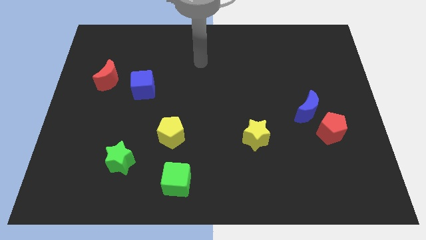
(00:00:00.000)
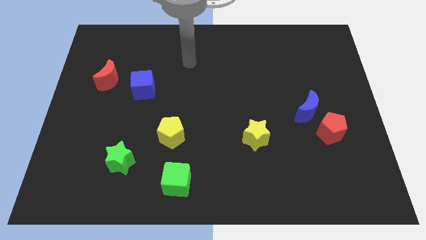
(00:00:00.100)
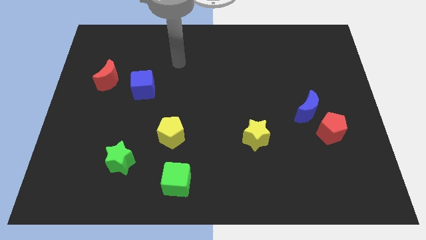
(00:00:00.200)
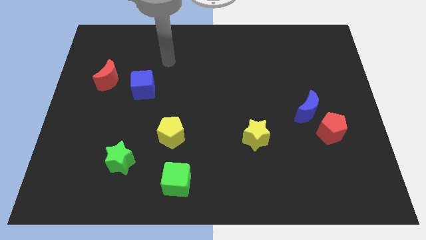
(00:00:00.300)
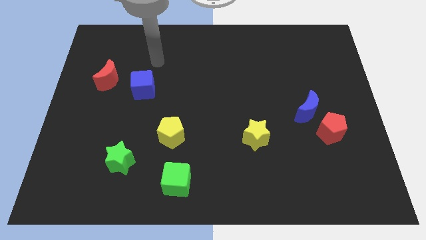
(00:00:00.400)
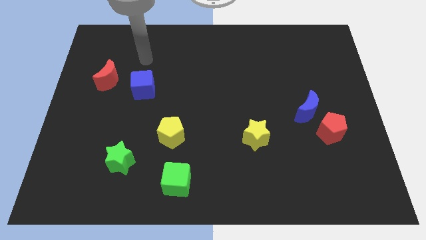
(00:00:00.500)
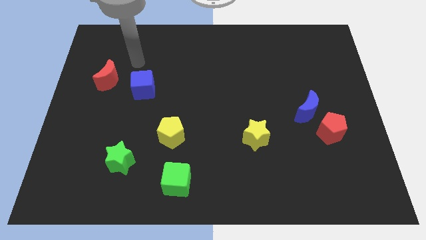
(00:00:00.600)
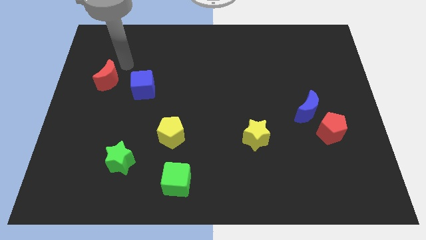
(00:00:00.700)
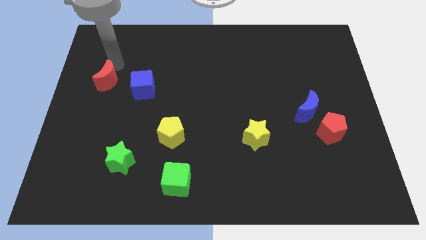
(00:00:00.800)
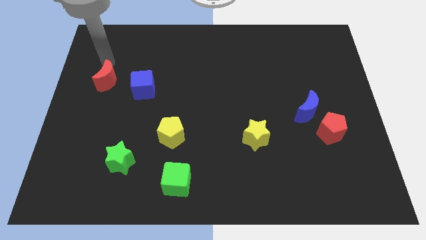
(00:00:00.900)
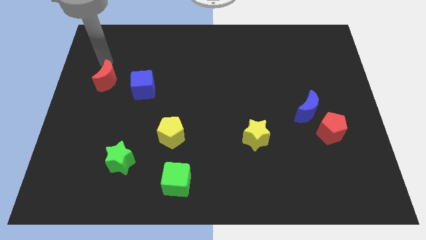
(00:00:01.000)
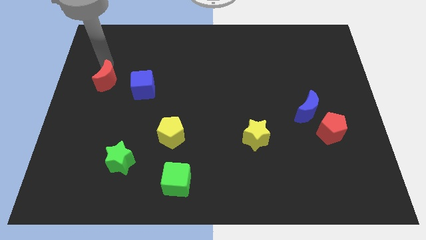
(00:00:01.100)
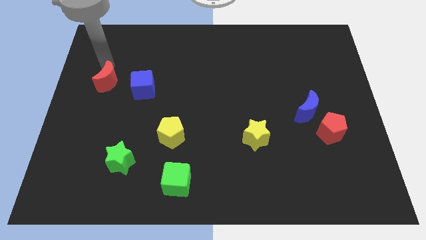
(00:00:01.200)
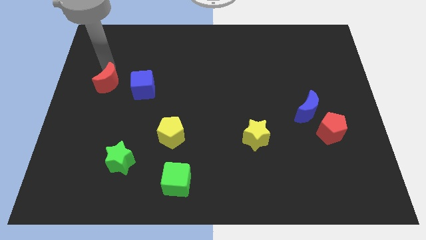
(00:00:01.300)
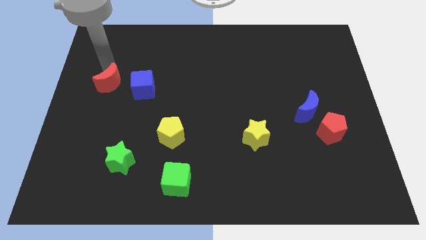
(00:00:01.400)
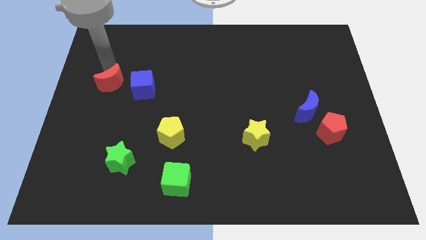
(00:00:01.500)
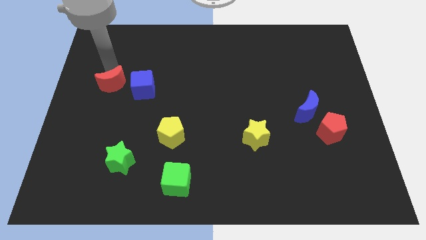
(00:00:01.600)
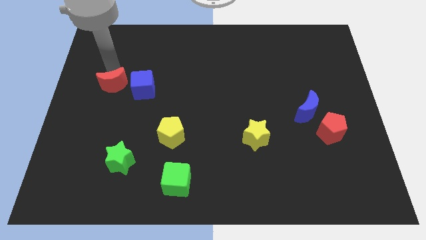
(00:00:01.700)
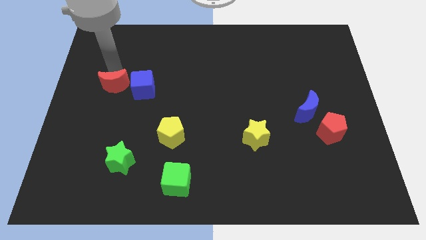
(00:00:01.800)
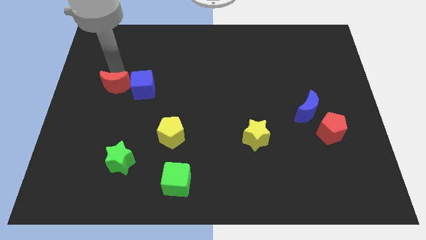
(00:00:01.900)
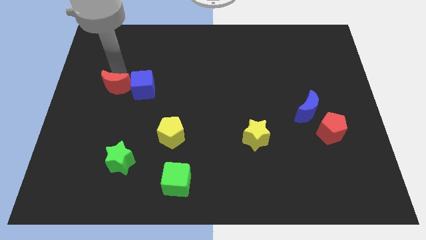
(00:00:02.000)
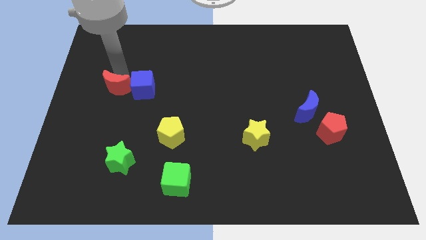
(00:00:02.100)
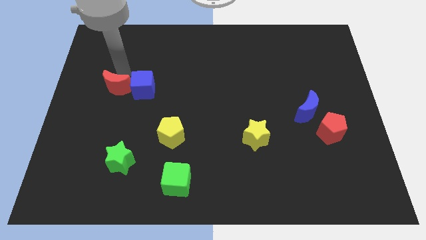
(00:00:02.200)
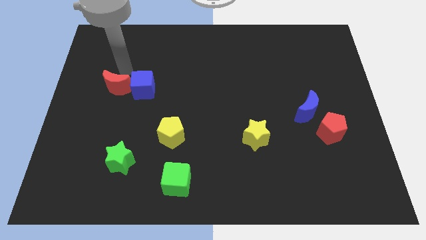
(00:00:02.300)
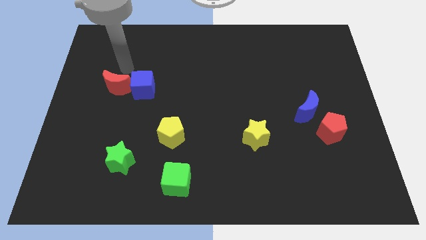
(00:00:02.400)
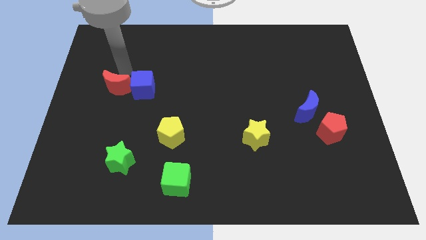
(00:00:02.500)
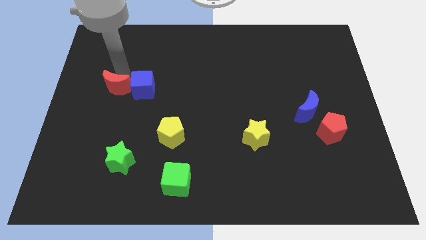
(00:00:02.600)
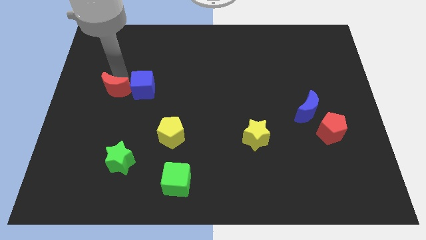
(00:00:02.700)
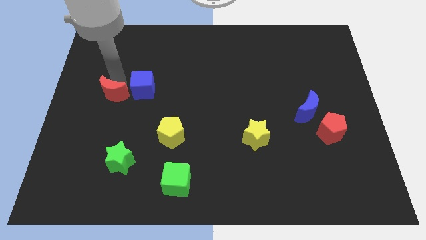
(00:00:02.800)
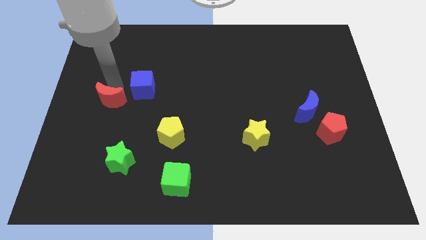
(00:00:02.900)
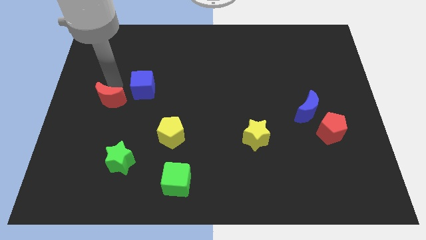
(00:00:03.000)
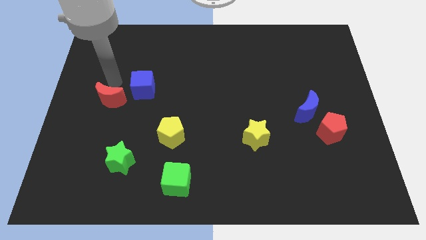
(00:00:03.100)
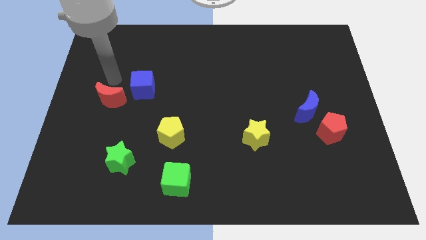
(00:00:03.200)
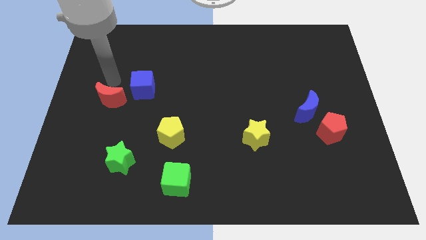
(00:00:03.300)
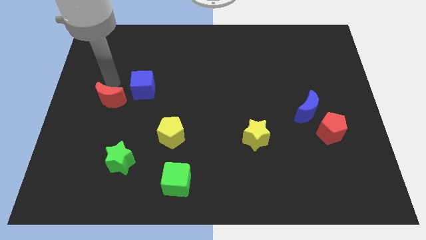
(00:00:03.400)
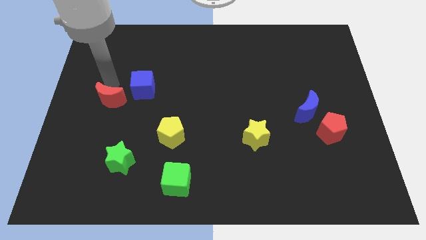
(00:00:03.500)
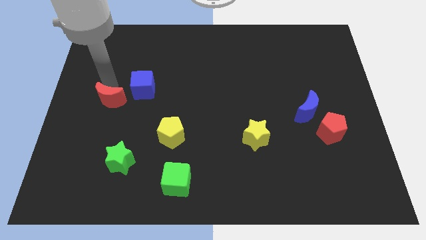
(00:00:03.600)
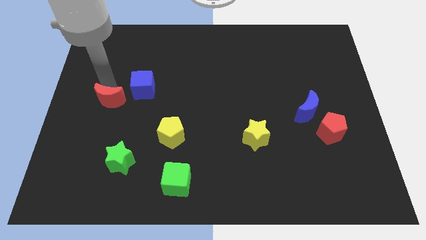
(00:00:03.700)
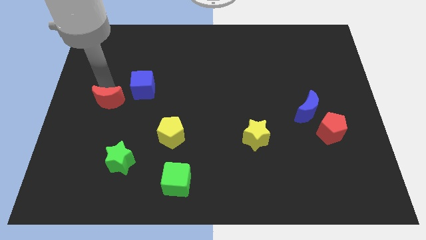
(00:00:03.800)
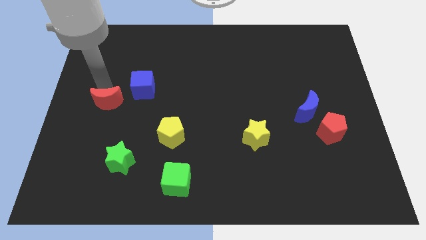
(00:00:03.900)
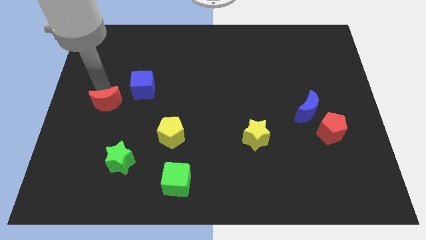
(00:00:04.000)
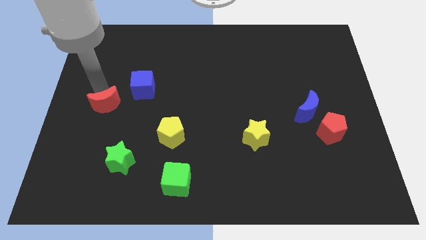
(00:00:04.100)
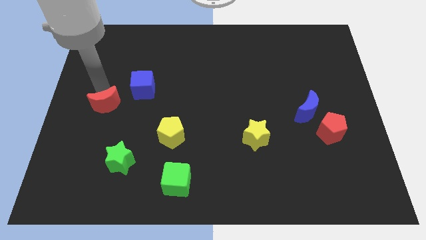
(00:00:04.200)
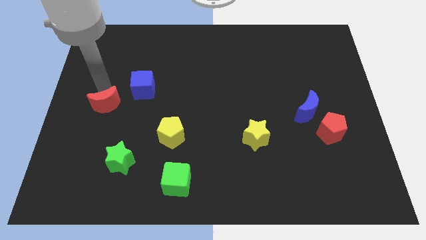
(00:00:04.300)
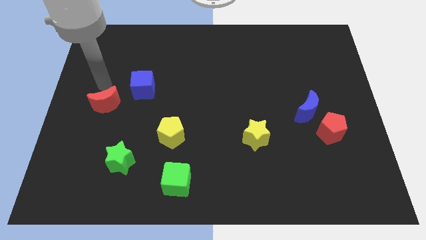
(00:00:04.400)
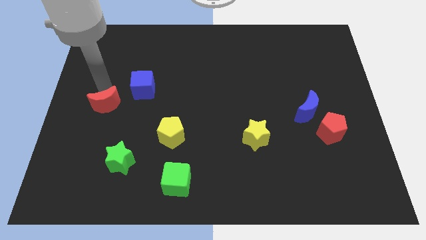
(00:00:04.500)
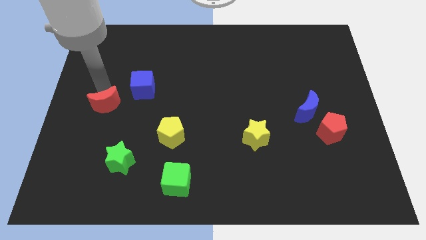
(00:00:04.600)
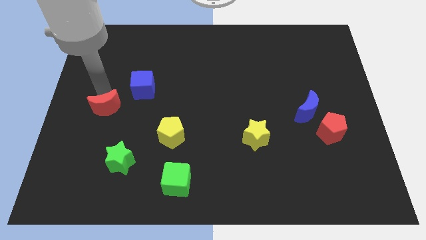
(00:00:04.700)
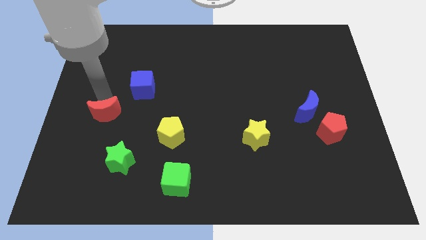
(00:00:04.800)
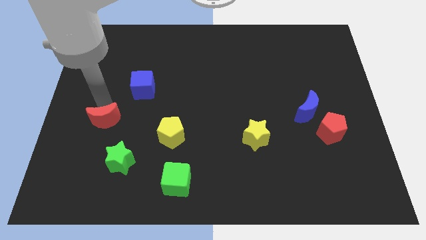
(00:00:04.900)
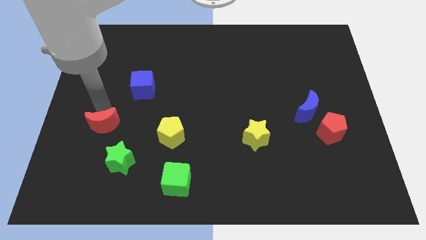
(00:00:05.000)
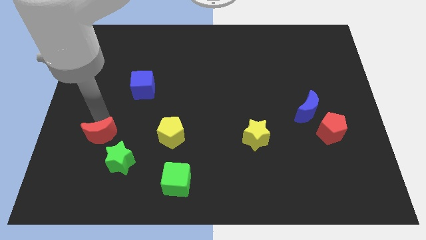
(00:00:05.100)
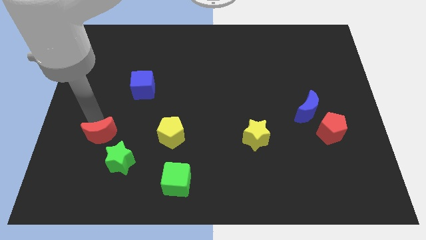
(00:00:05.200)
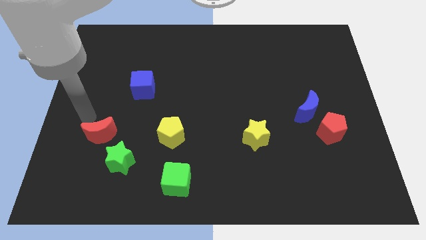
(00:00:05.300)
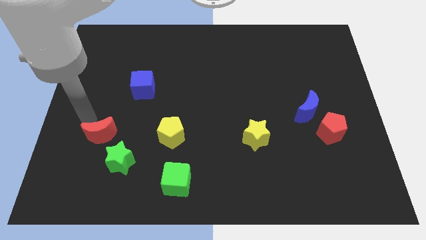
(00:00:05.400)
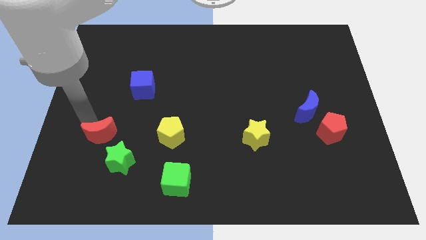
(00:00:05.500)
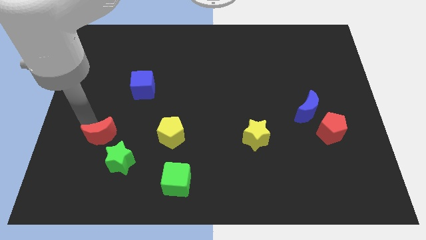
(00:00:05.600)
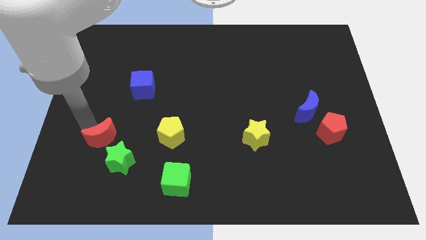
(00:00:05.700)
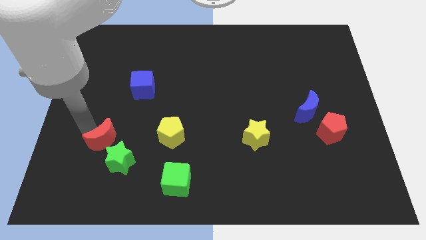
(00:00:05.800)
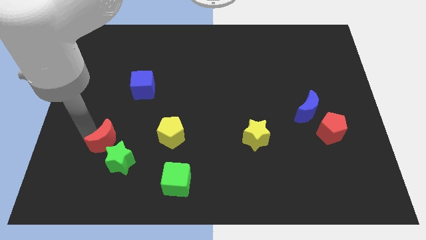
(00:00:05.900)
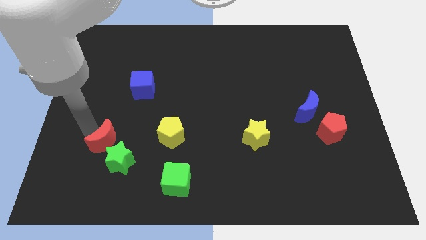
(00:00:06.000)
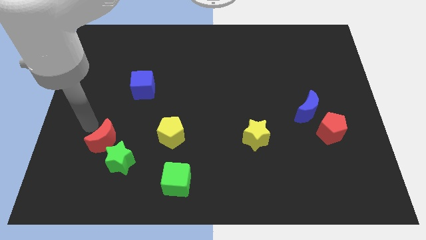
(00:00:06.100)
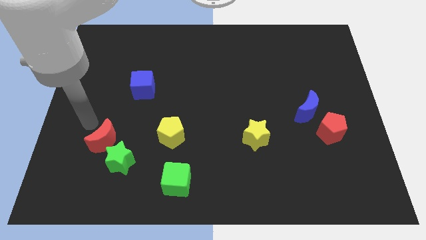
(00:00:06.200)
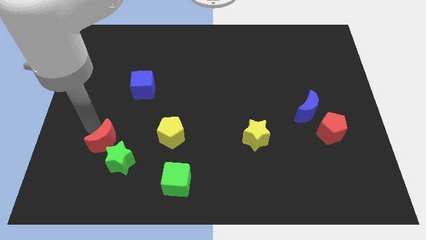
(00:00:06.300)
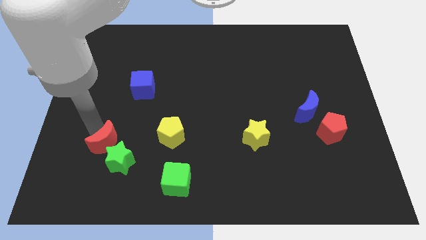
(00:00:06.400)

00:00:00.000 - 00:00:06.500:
move the red moon to the green star
